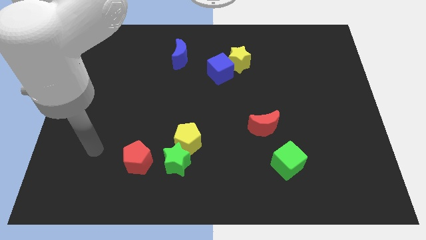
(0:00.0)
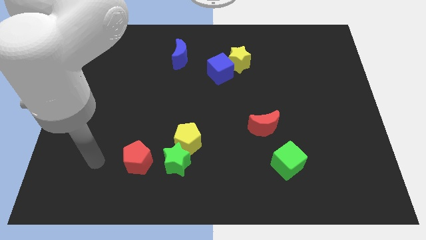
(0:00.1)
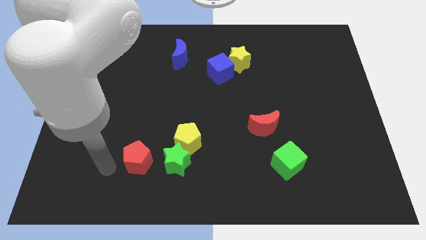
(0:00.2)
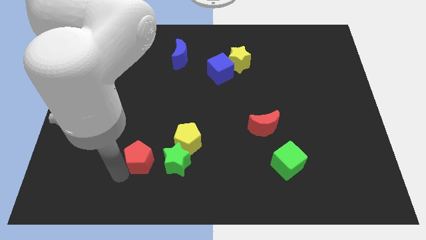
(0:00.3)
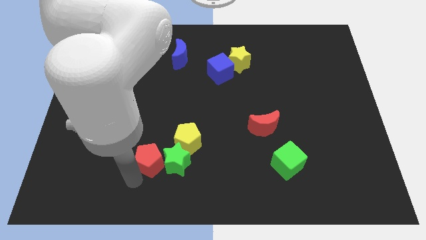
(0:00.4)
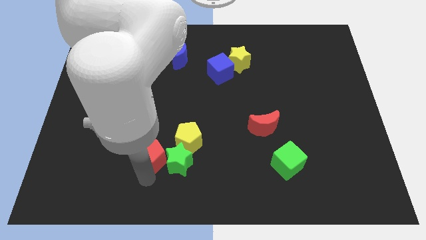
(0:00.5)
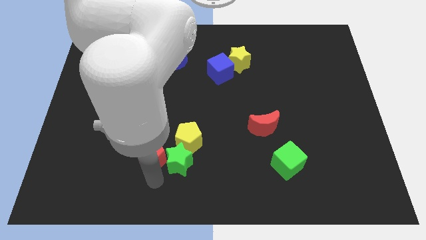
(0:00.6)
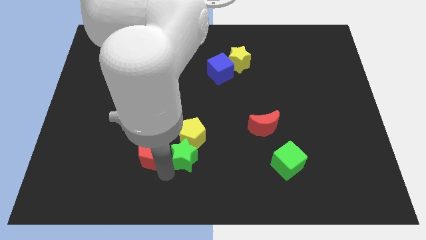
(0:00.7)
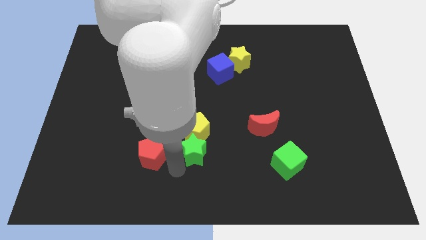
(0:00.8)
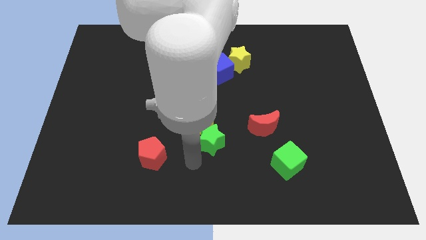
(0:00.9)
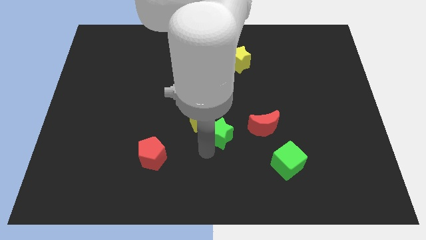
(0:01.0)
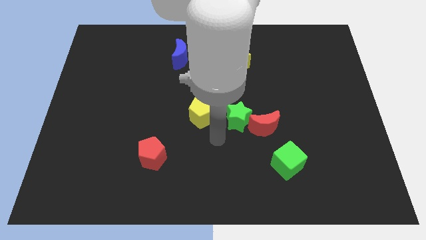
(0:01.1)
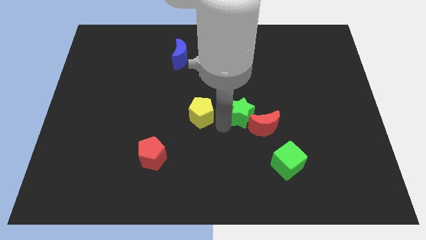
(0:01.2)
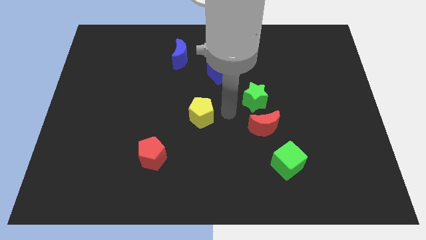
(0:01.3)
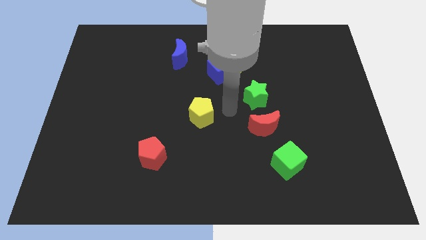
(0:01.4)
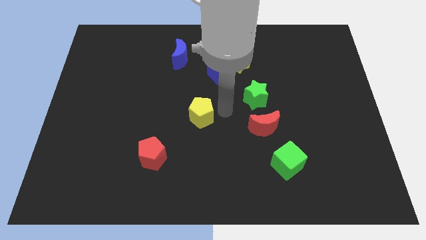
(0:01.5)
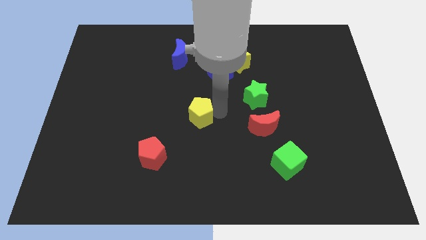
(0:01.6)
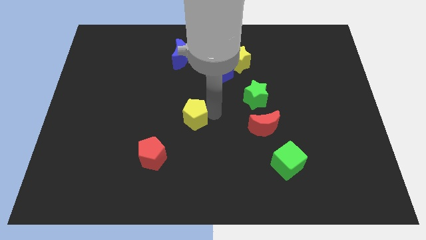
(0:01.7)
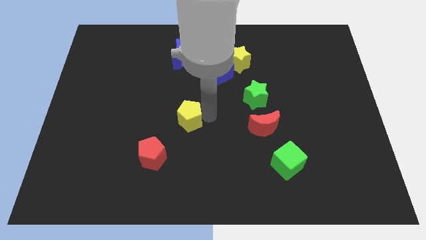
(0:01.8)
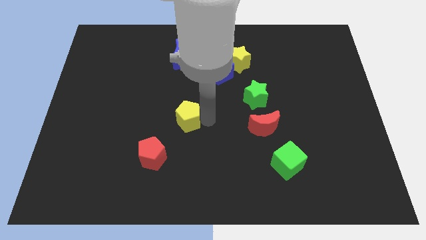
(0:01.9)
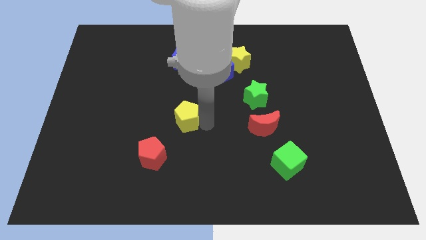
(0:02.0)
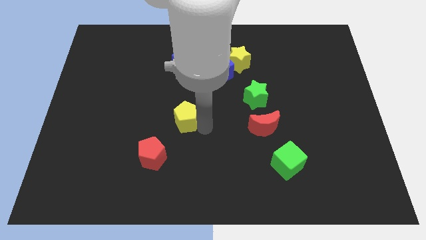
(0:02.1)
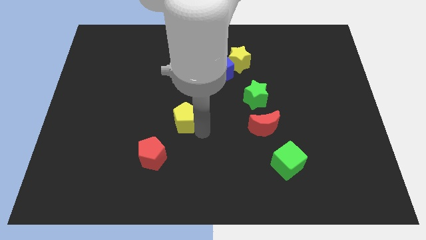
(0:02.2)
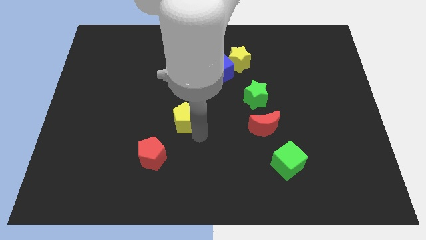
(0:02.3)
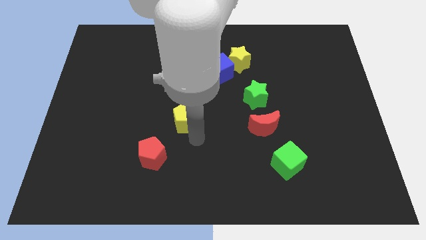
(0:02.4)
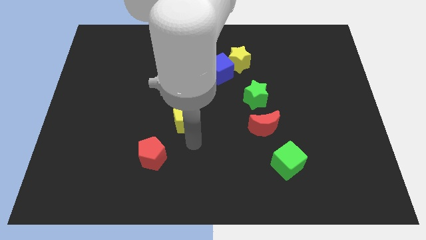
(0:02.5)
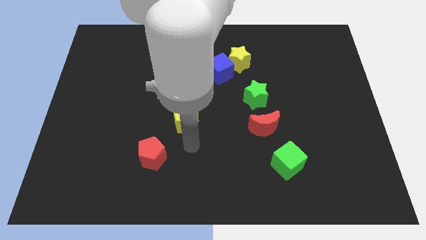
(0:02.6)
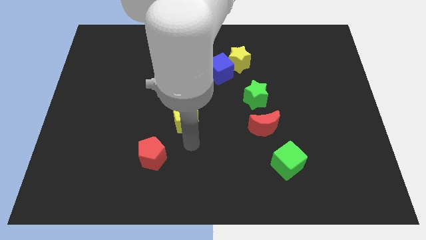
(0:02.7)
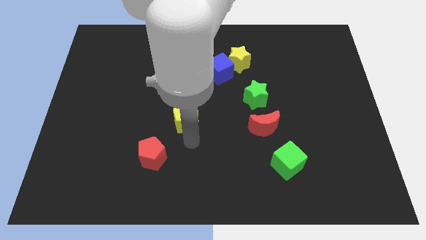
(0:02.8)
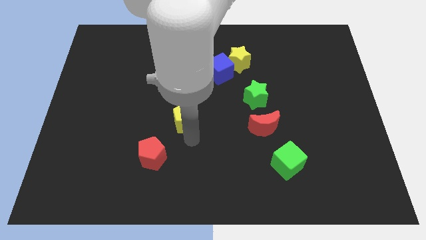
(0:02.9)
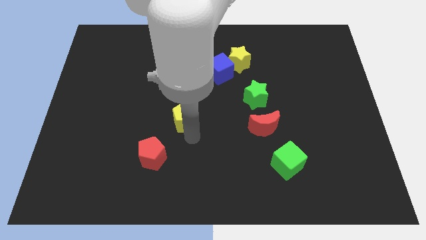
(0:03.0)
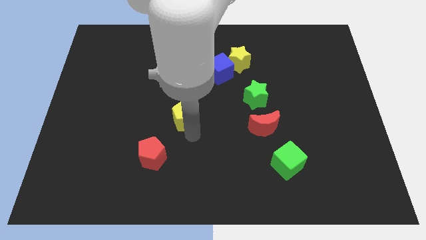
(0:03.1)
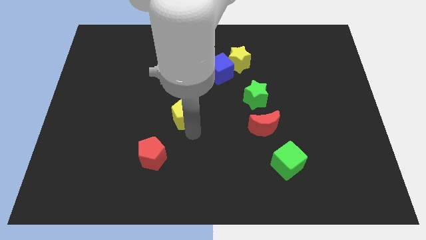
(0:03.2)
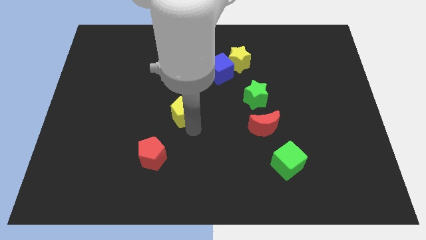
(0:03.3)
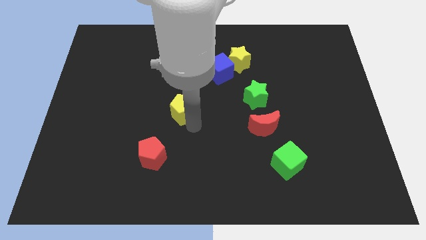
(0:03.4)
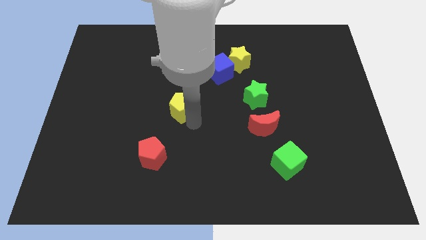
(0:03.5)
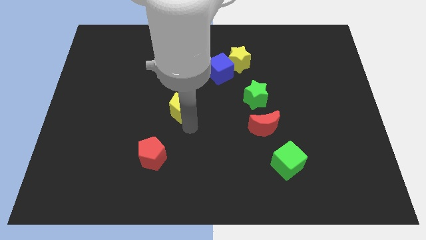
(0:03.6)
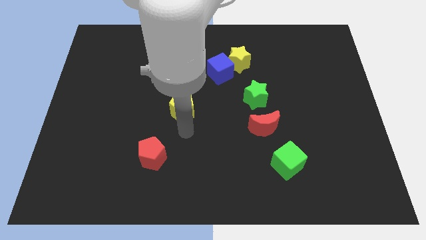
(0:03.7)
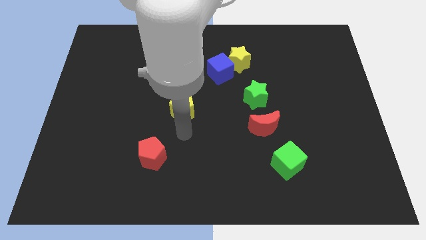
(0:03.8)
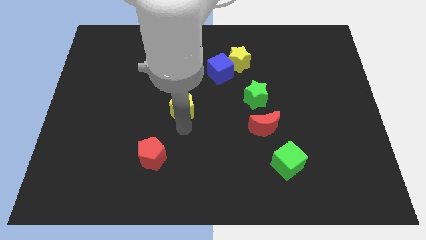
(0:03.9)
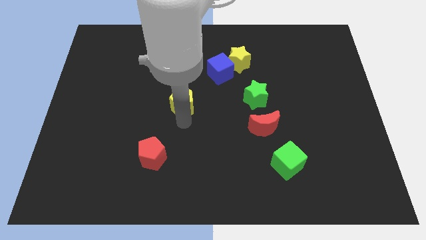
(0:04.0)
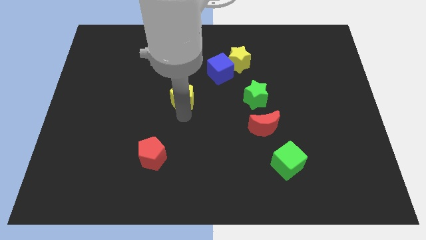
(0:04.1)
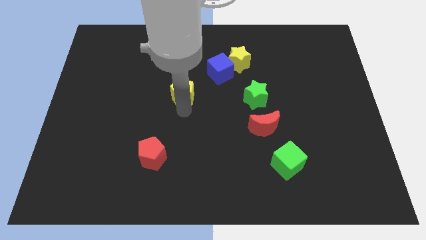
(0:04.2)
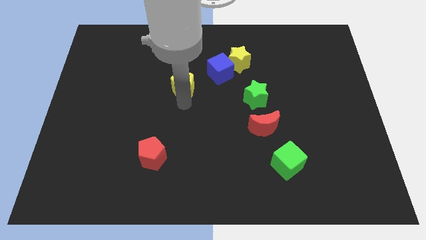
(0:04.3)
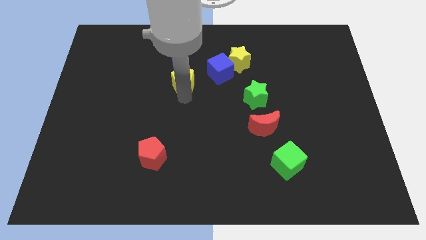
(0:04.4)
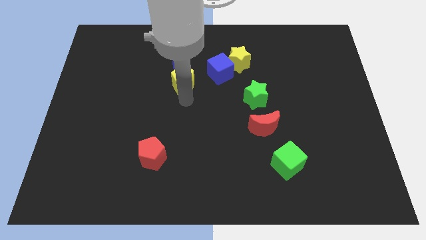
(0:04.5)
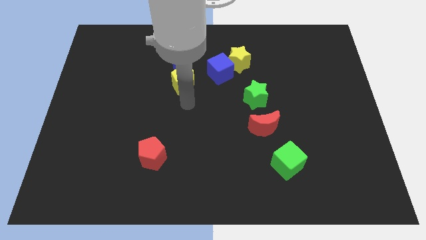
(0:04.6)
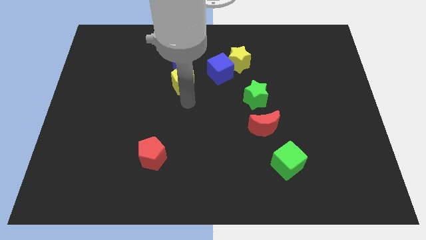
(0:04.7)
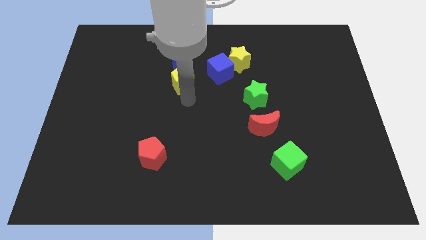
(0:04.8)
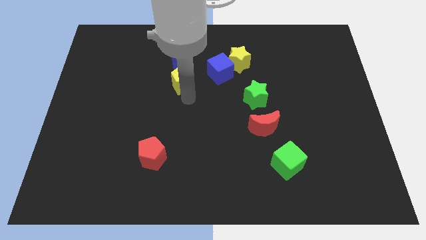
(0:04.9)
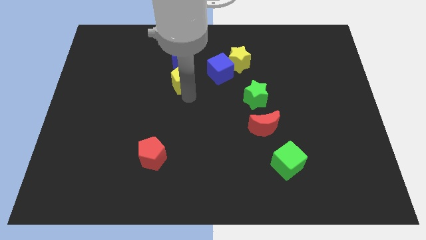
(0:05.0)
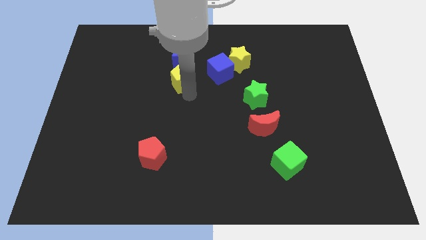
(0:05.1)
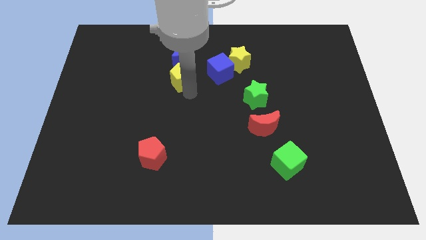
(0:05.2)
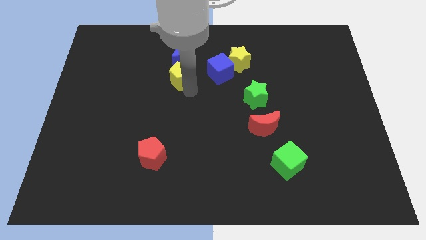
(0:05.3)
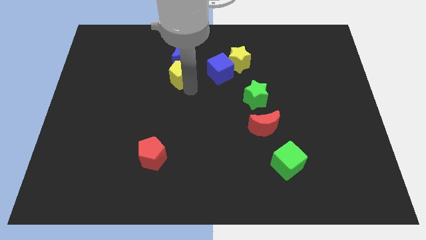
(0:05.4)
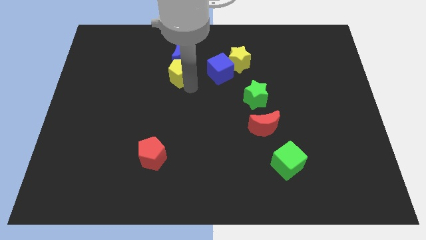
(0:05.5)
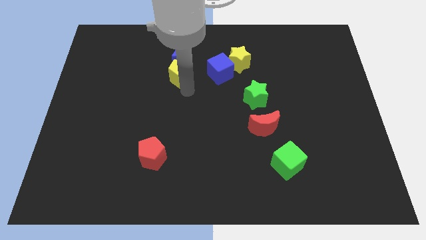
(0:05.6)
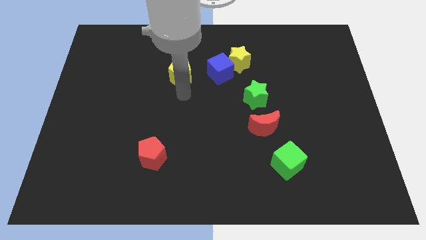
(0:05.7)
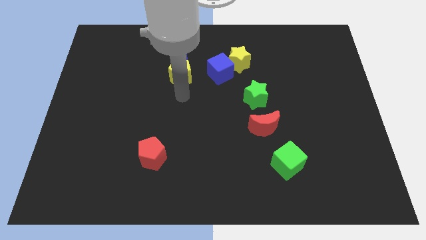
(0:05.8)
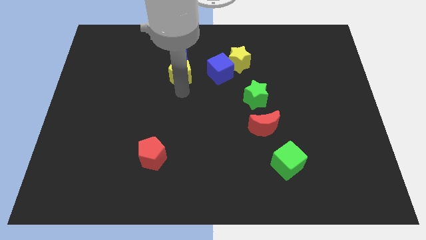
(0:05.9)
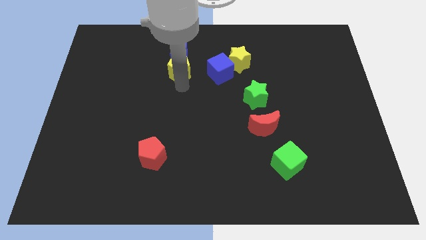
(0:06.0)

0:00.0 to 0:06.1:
push the yellow pentagon to the blue moon

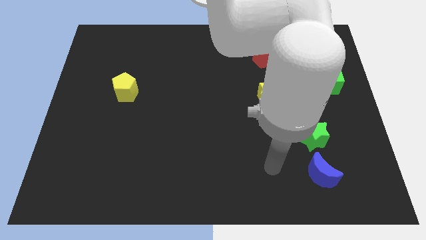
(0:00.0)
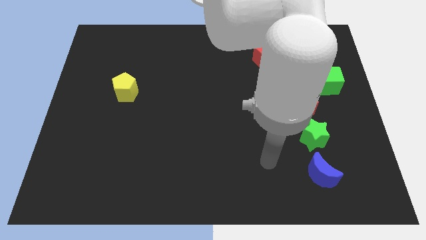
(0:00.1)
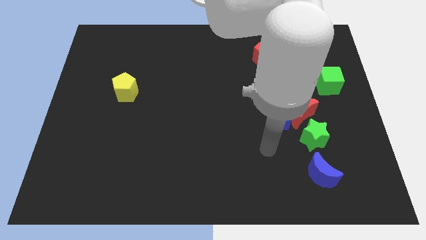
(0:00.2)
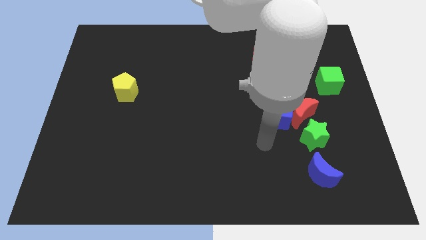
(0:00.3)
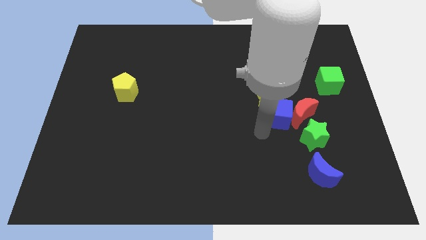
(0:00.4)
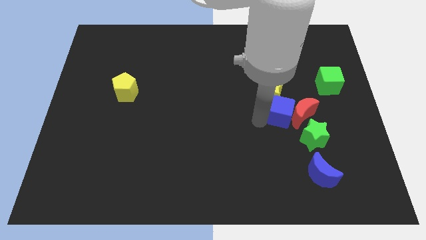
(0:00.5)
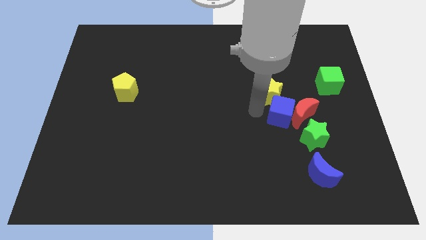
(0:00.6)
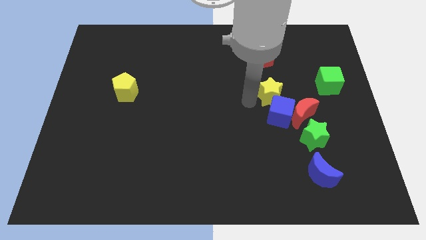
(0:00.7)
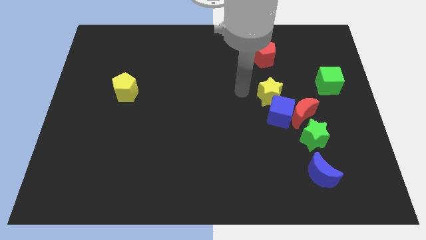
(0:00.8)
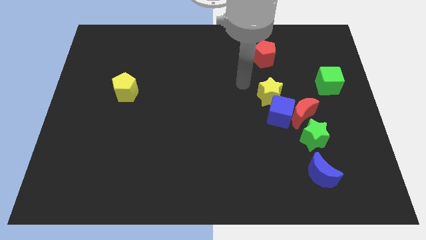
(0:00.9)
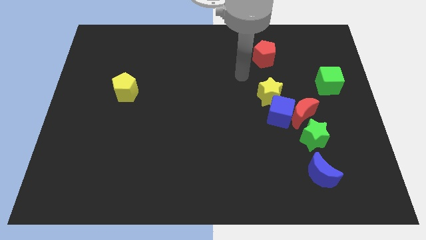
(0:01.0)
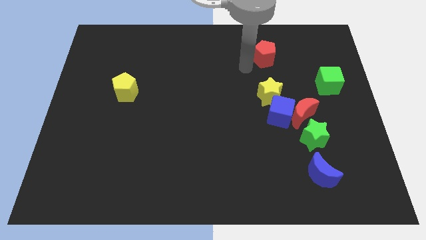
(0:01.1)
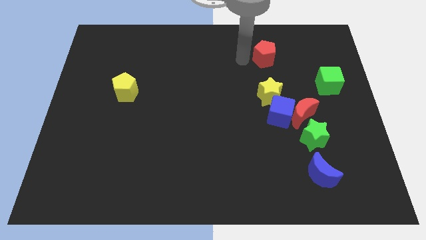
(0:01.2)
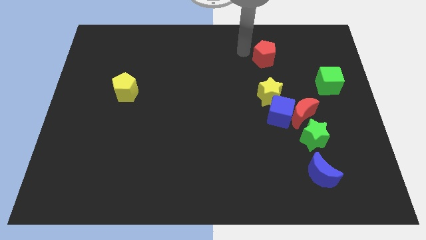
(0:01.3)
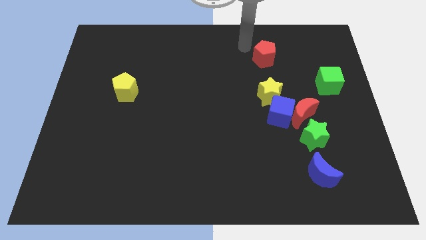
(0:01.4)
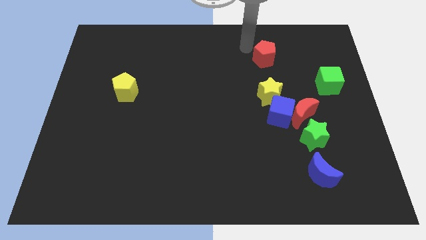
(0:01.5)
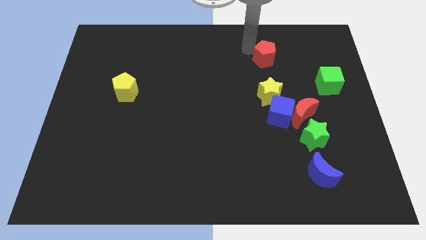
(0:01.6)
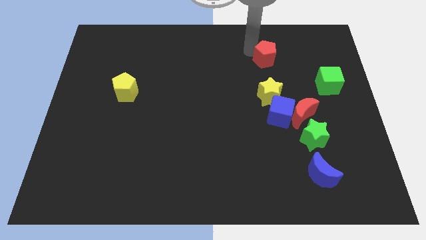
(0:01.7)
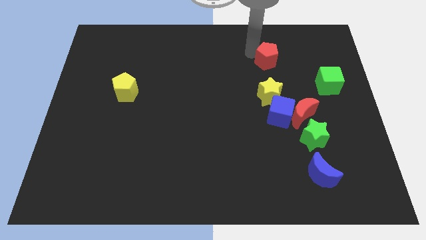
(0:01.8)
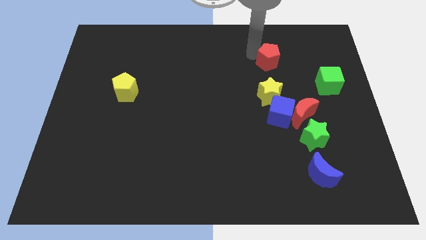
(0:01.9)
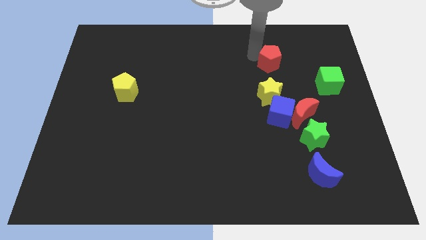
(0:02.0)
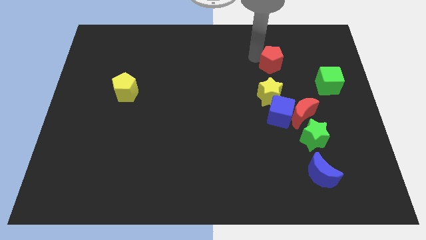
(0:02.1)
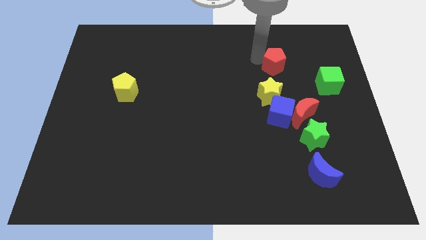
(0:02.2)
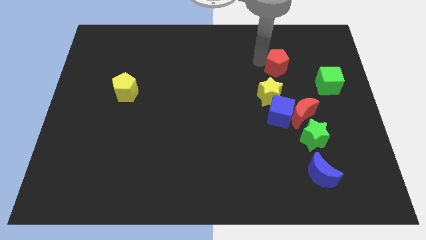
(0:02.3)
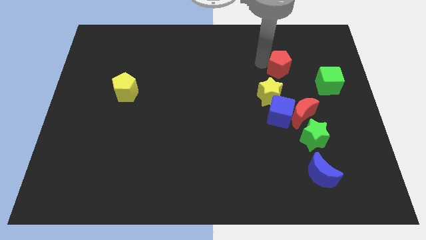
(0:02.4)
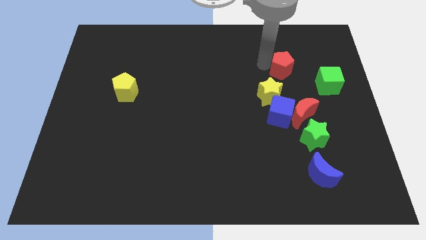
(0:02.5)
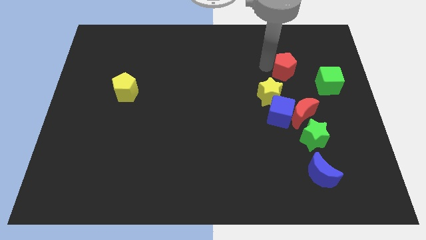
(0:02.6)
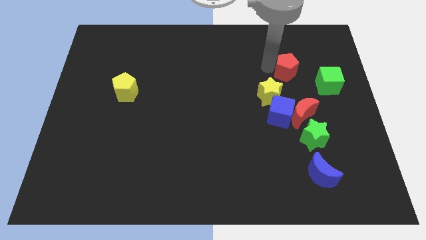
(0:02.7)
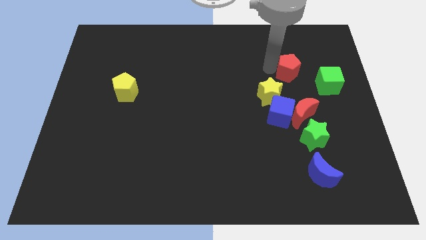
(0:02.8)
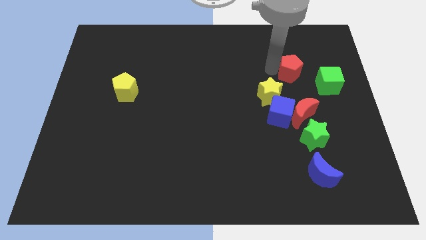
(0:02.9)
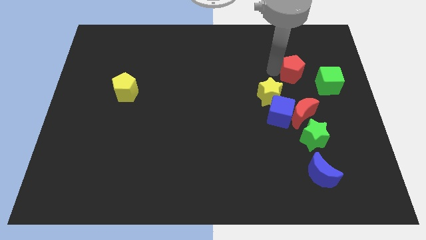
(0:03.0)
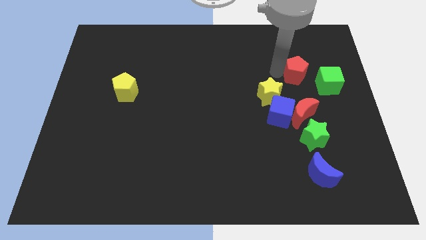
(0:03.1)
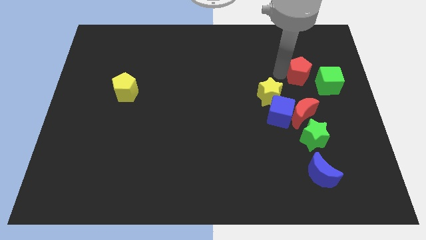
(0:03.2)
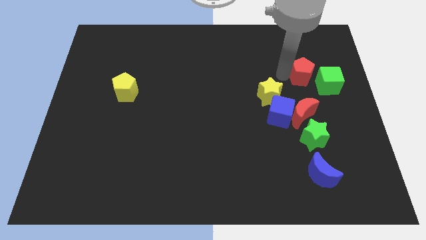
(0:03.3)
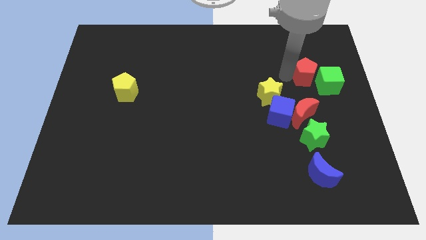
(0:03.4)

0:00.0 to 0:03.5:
move the red pentagon towards the green cube
